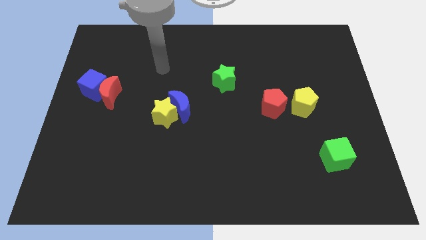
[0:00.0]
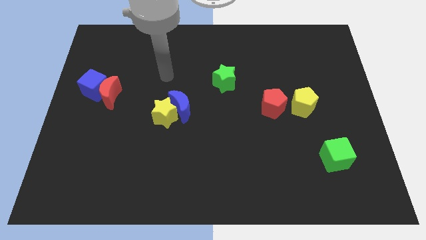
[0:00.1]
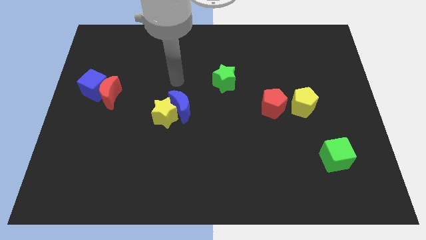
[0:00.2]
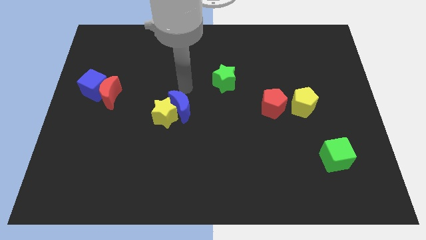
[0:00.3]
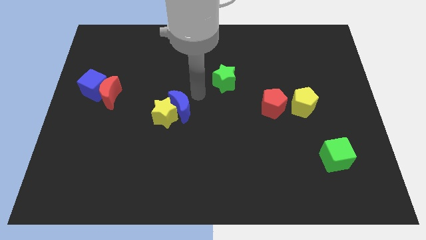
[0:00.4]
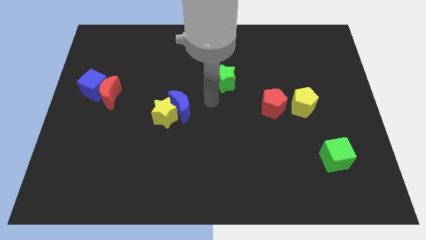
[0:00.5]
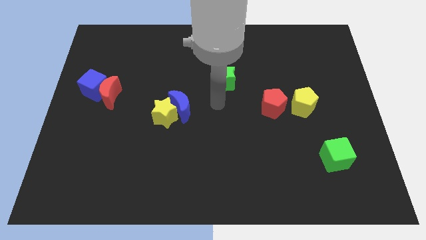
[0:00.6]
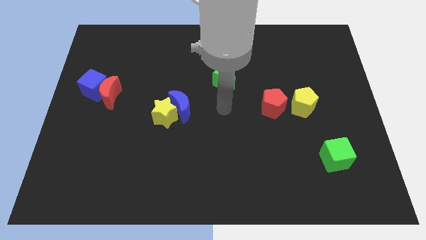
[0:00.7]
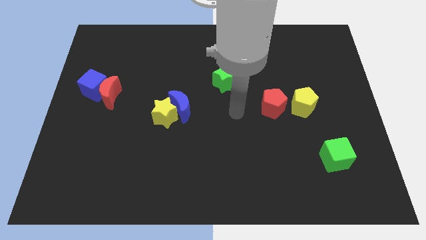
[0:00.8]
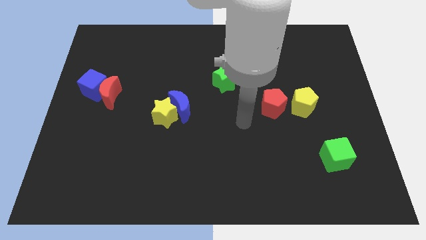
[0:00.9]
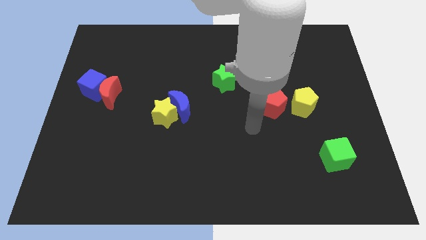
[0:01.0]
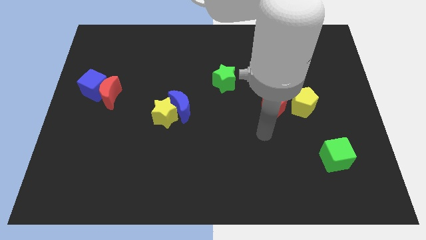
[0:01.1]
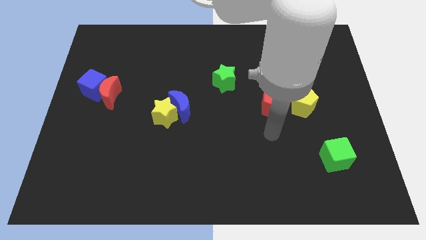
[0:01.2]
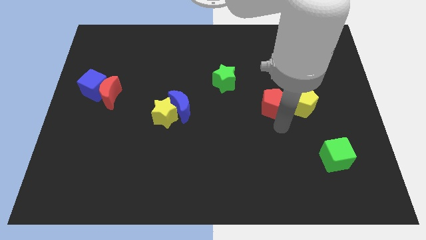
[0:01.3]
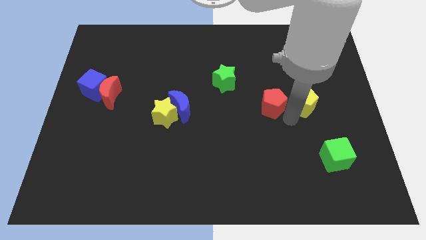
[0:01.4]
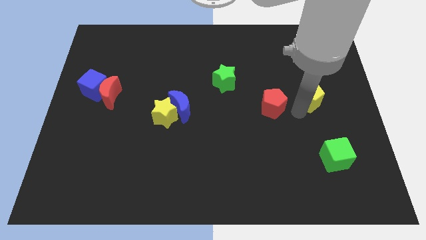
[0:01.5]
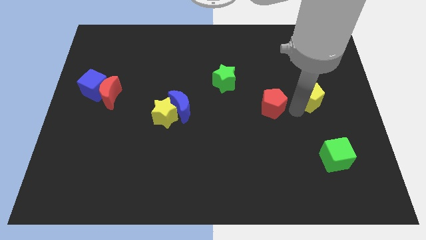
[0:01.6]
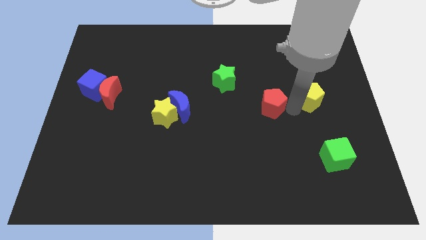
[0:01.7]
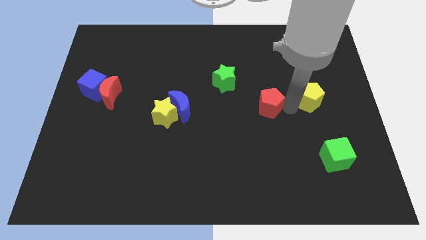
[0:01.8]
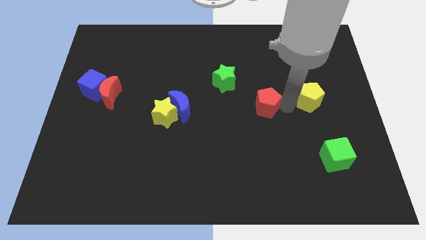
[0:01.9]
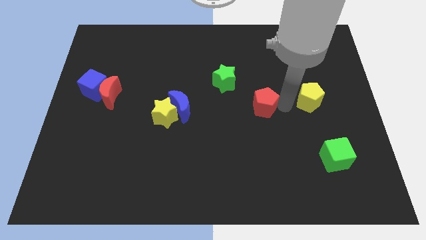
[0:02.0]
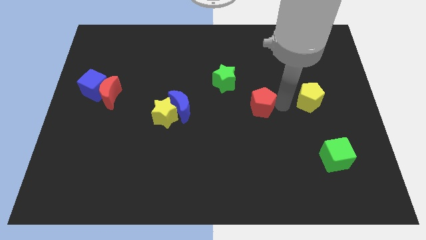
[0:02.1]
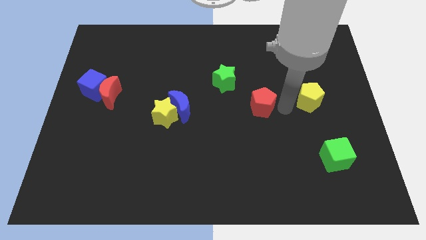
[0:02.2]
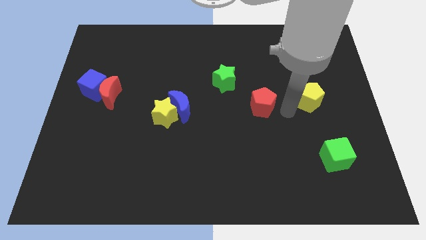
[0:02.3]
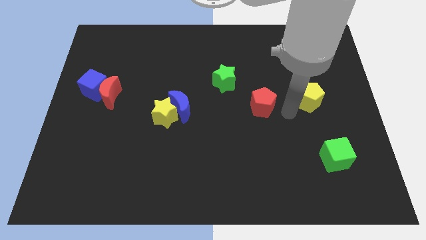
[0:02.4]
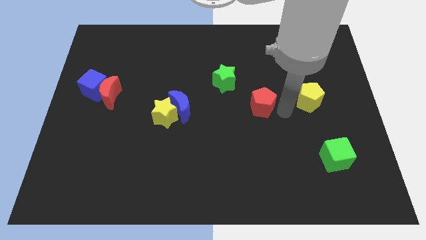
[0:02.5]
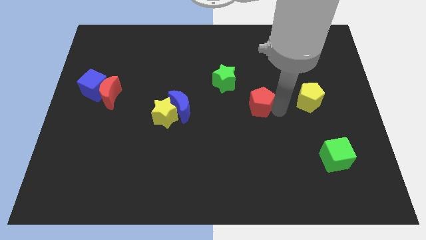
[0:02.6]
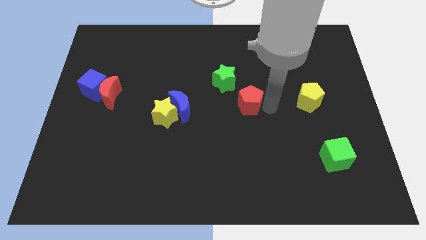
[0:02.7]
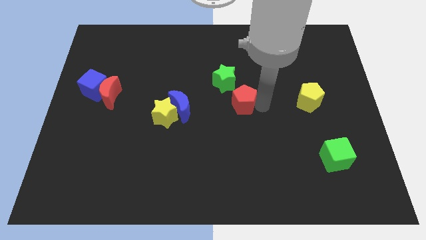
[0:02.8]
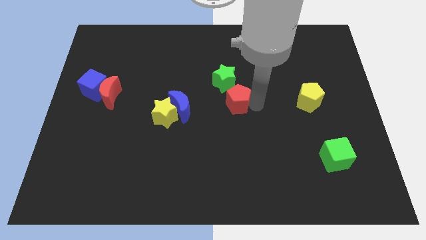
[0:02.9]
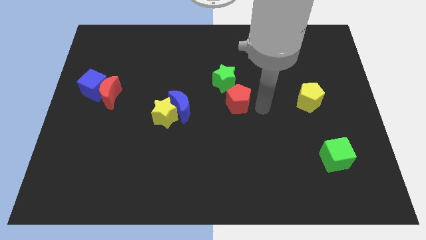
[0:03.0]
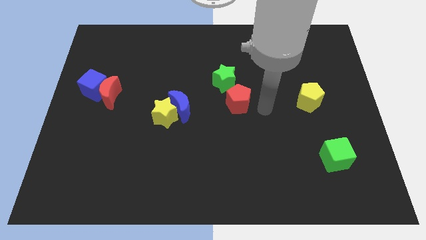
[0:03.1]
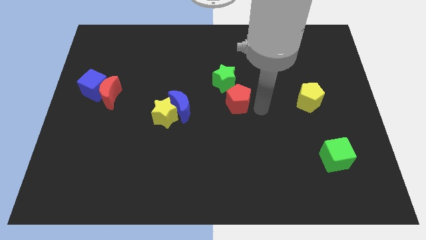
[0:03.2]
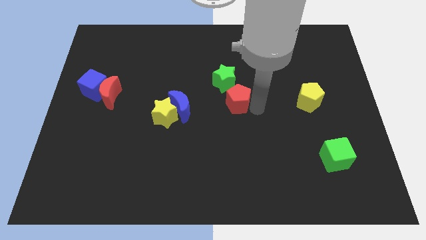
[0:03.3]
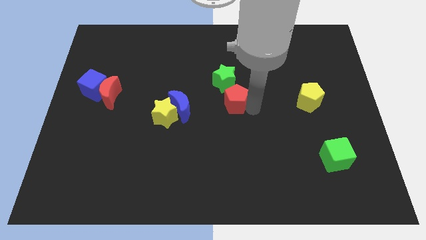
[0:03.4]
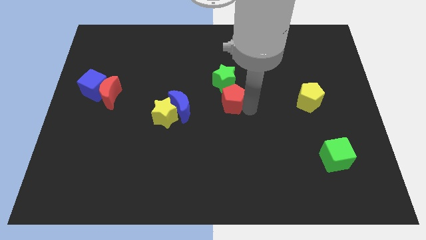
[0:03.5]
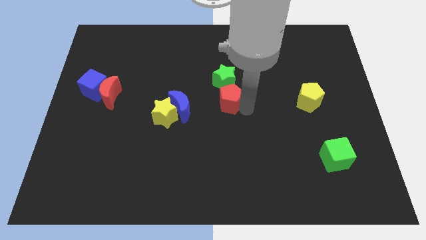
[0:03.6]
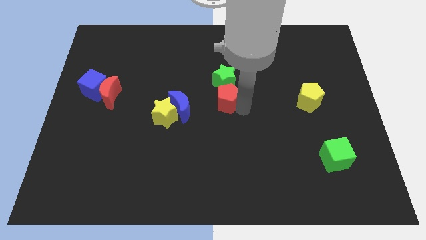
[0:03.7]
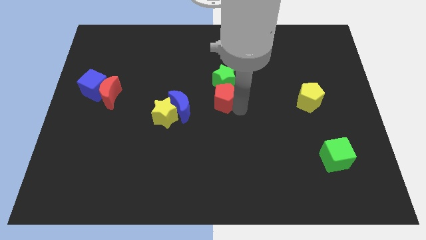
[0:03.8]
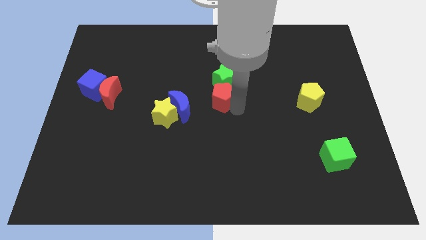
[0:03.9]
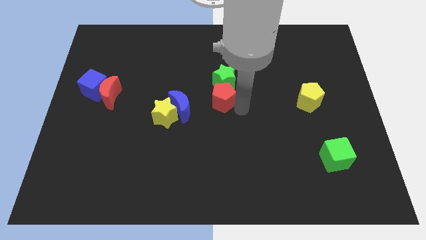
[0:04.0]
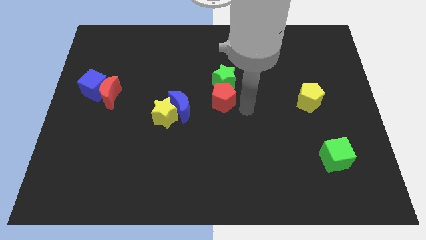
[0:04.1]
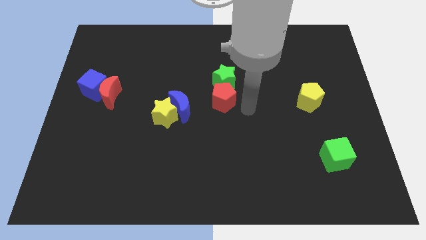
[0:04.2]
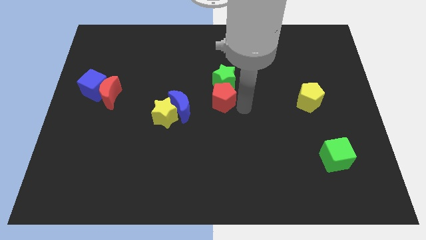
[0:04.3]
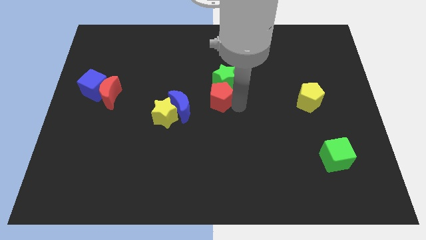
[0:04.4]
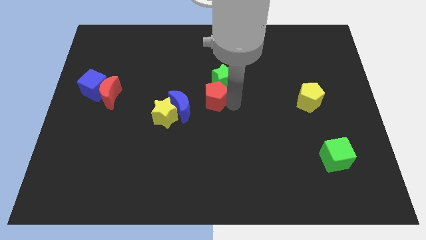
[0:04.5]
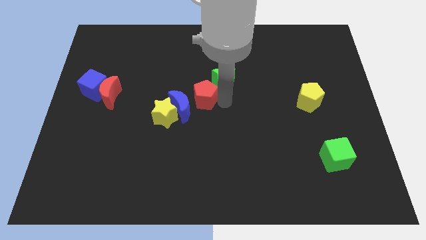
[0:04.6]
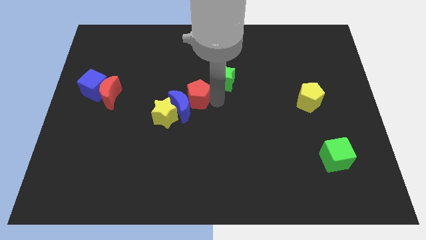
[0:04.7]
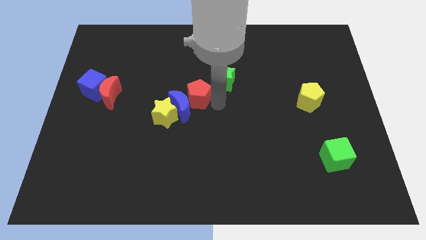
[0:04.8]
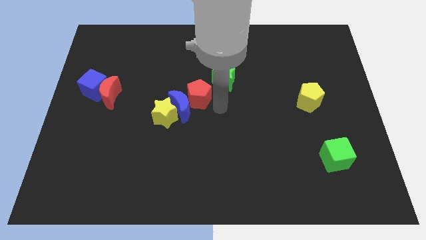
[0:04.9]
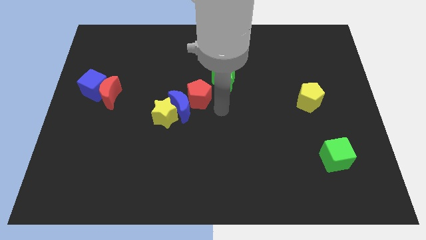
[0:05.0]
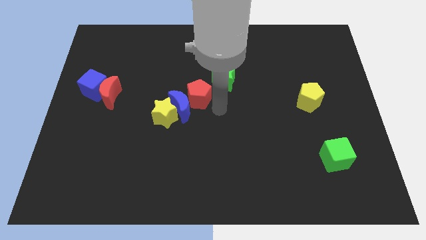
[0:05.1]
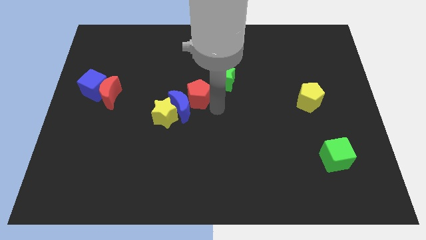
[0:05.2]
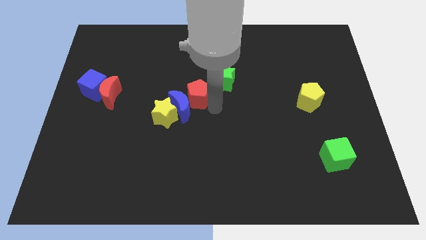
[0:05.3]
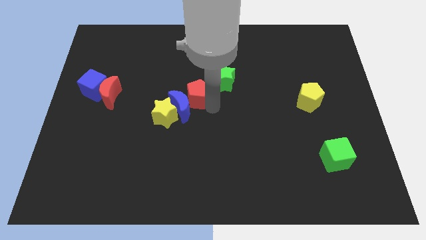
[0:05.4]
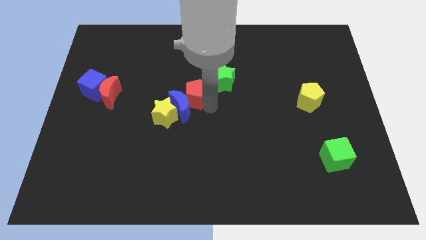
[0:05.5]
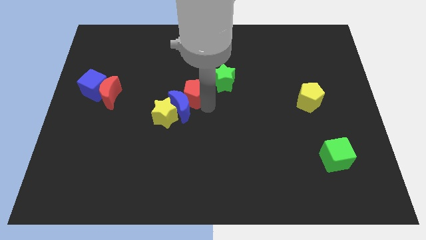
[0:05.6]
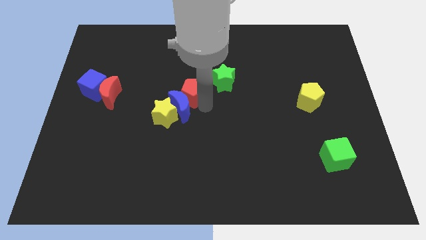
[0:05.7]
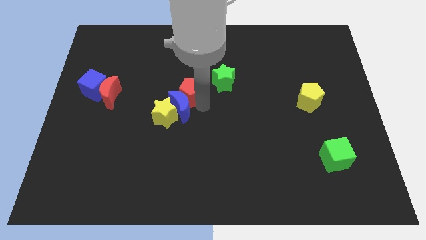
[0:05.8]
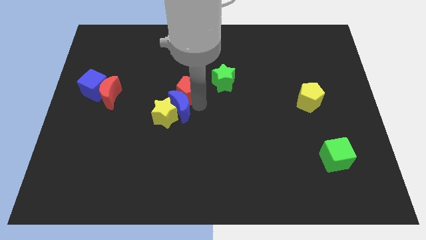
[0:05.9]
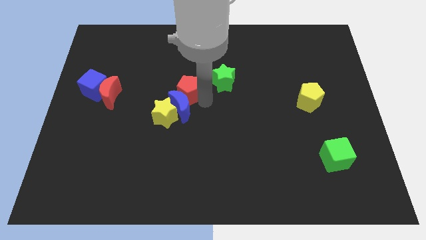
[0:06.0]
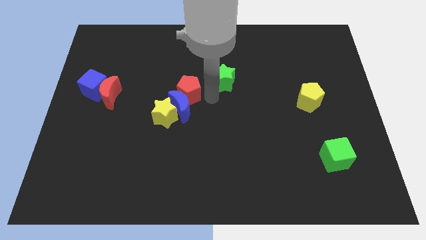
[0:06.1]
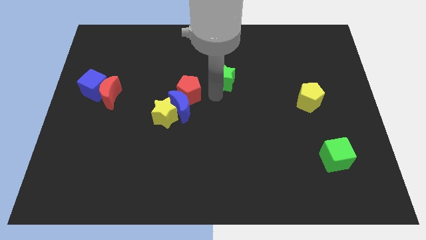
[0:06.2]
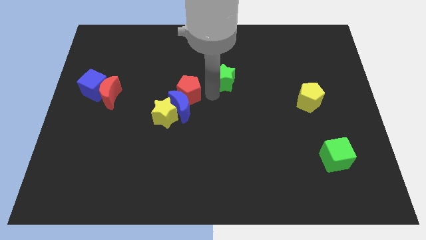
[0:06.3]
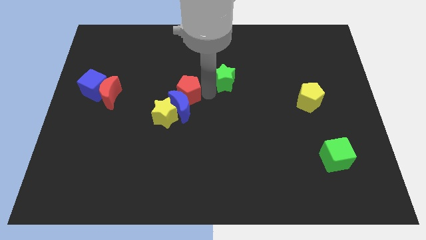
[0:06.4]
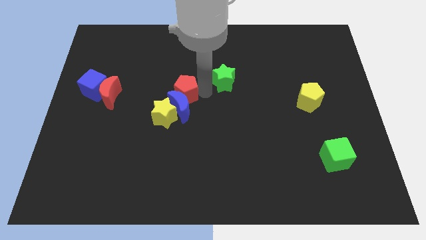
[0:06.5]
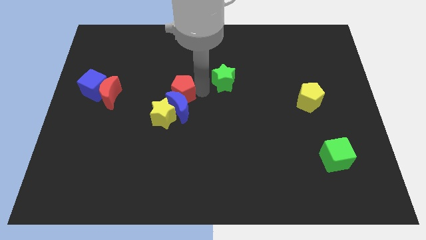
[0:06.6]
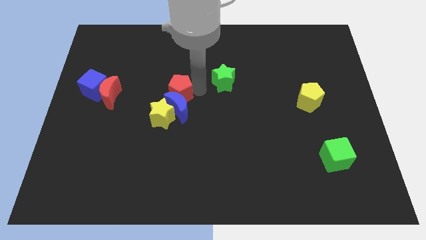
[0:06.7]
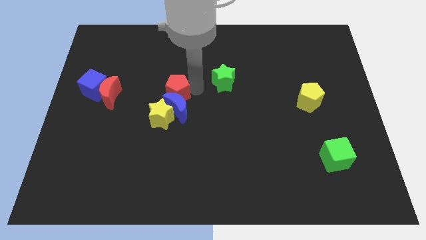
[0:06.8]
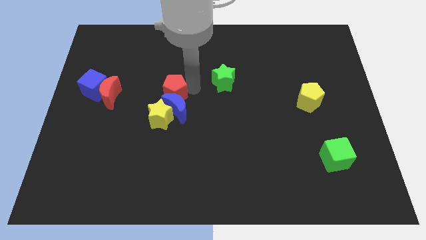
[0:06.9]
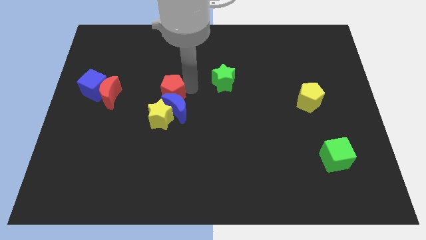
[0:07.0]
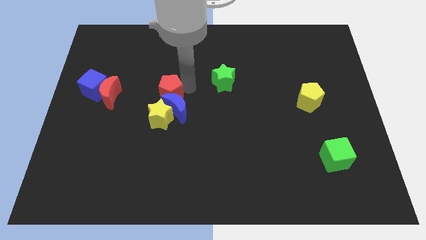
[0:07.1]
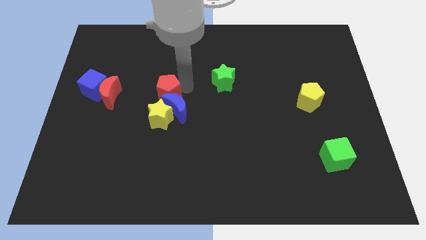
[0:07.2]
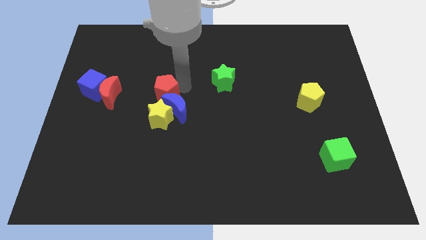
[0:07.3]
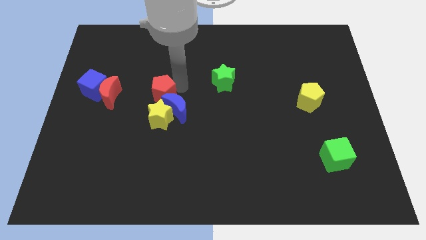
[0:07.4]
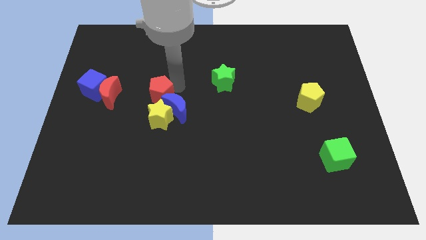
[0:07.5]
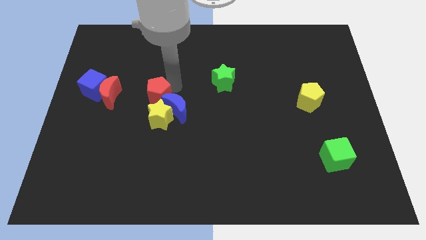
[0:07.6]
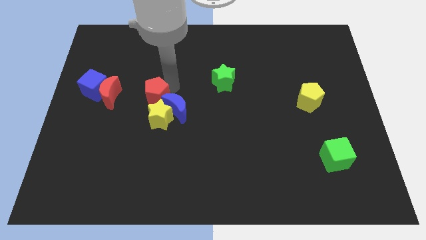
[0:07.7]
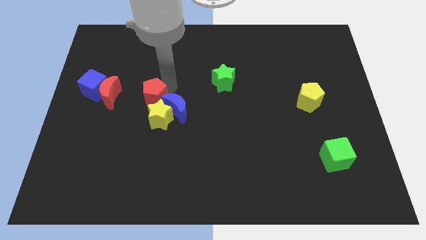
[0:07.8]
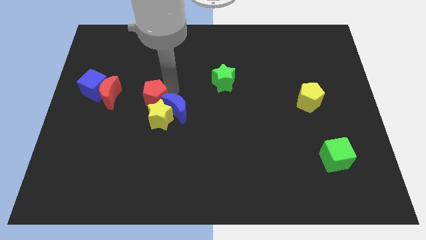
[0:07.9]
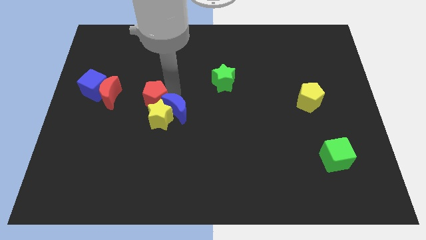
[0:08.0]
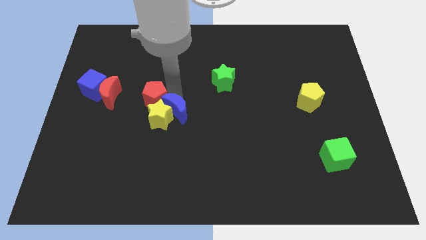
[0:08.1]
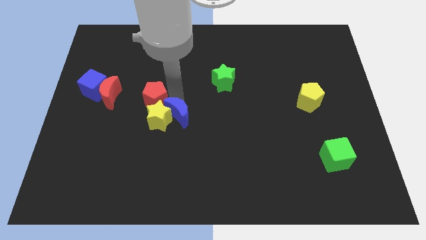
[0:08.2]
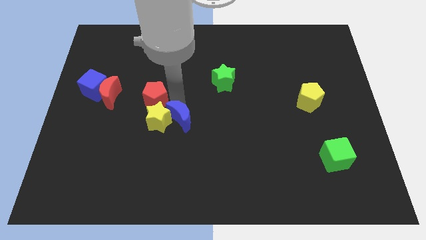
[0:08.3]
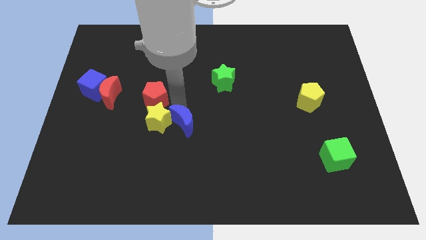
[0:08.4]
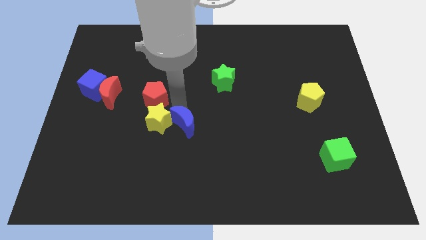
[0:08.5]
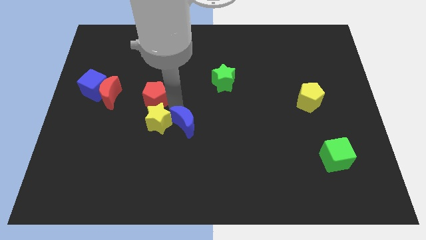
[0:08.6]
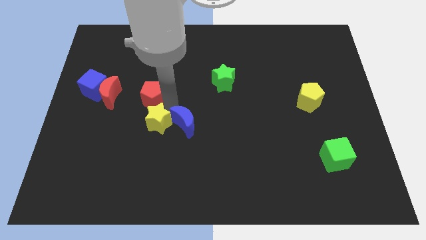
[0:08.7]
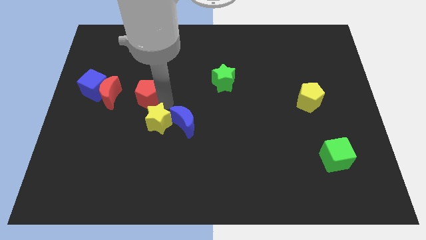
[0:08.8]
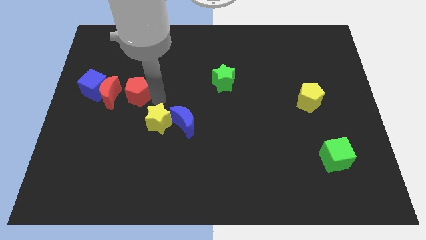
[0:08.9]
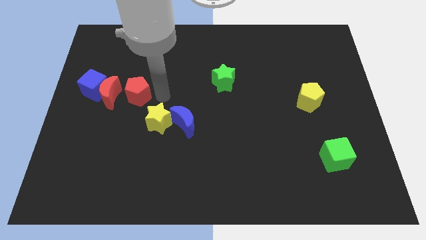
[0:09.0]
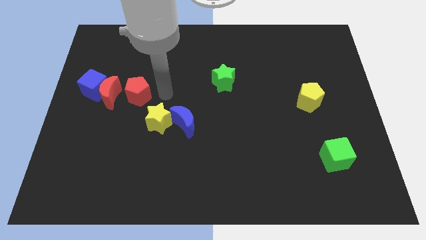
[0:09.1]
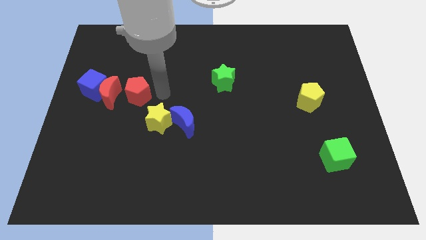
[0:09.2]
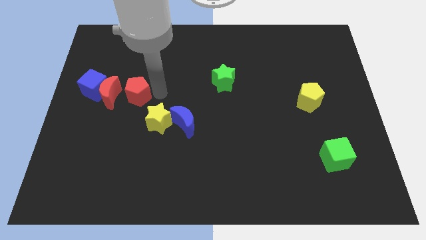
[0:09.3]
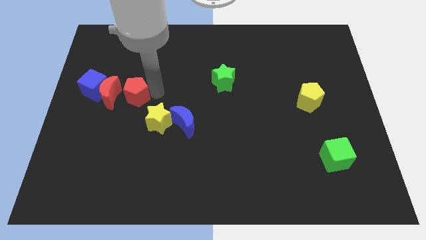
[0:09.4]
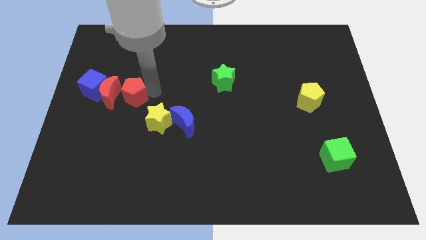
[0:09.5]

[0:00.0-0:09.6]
put the red pentagon next to the red moon
